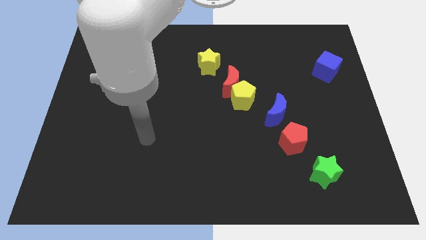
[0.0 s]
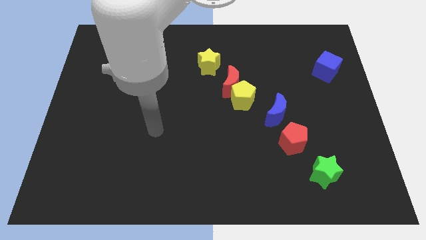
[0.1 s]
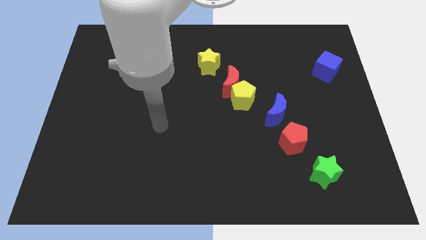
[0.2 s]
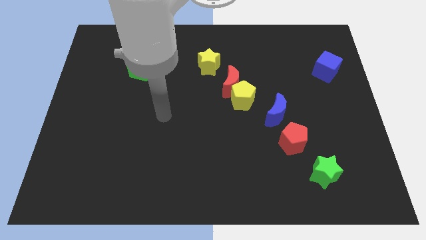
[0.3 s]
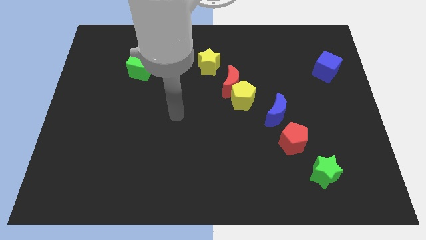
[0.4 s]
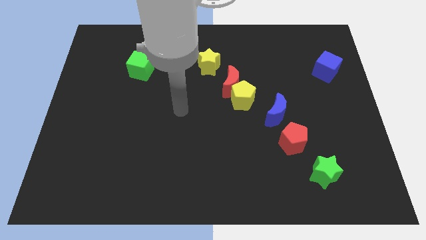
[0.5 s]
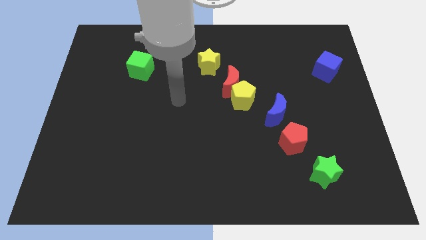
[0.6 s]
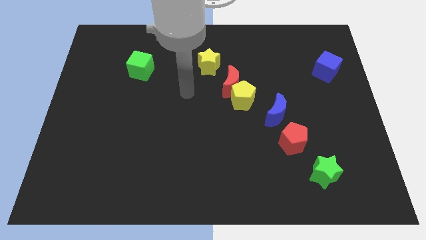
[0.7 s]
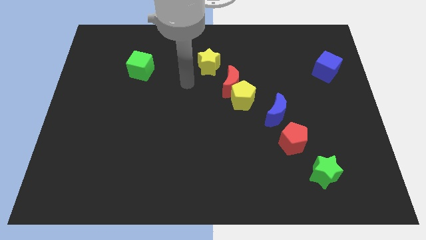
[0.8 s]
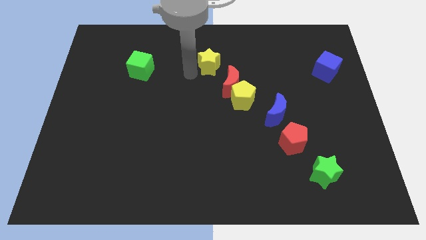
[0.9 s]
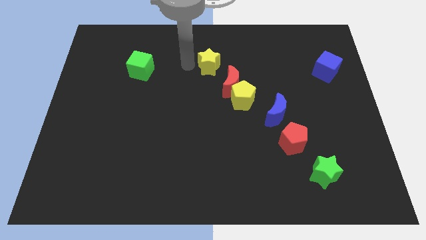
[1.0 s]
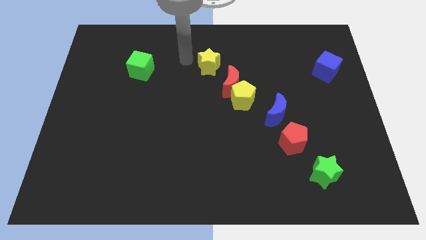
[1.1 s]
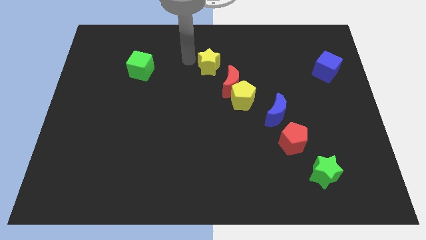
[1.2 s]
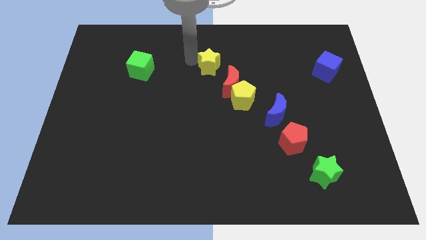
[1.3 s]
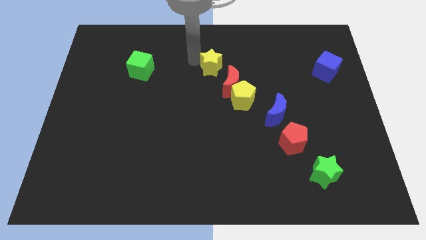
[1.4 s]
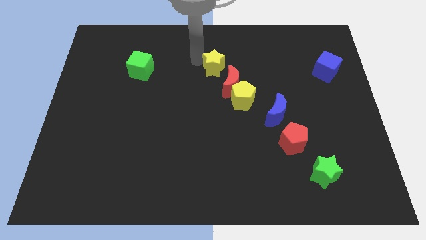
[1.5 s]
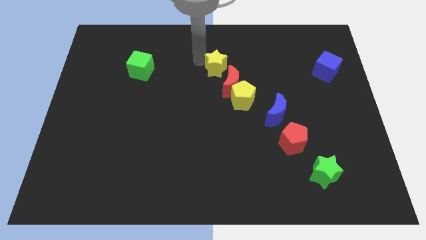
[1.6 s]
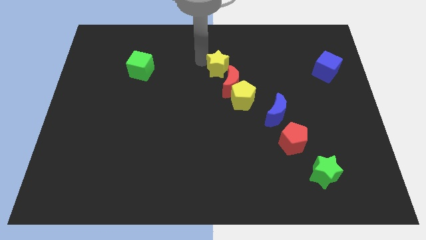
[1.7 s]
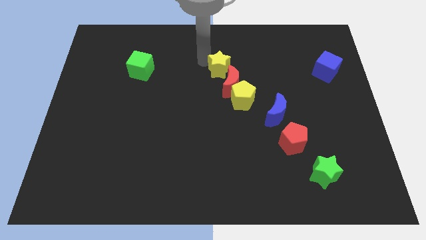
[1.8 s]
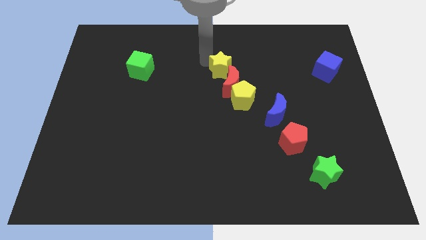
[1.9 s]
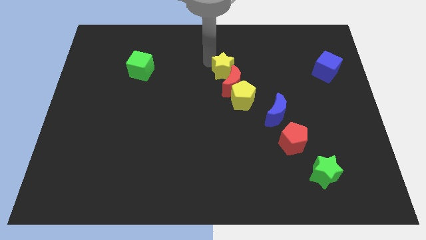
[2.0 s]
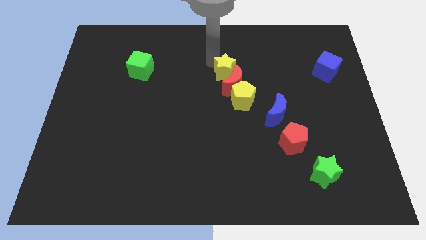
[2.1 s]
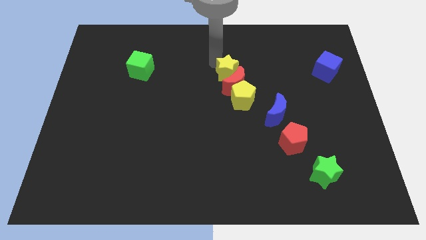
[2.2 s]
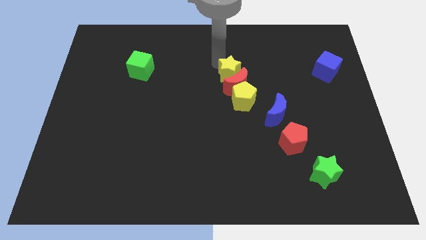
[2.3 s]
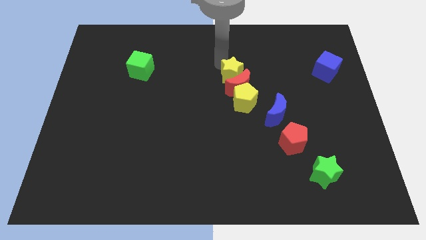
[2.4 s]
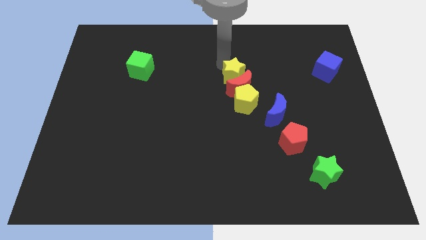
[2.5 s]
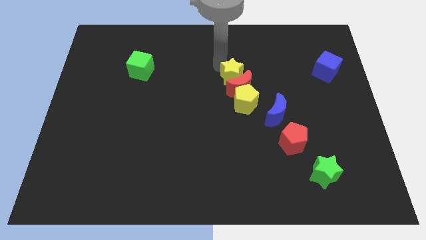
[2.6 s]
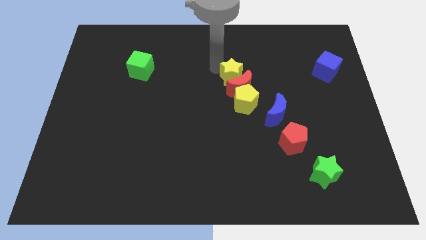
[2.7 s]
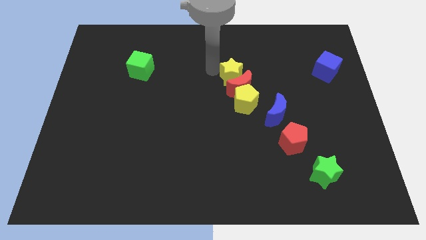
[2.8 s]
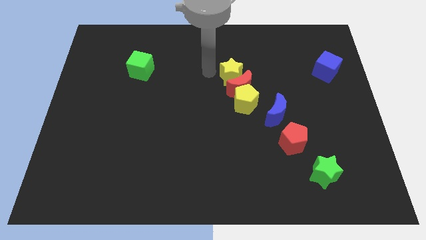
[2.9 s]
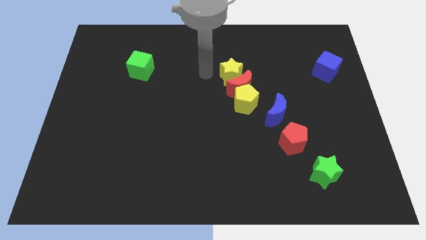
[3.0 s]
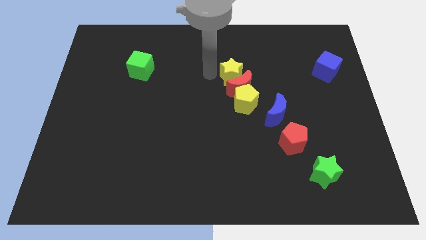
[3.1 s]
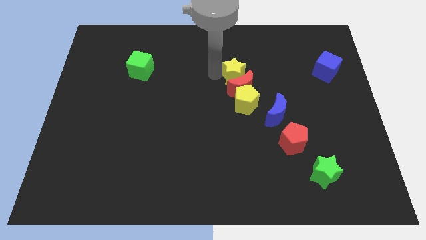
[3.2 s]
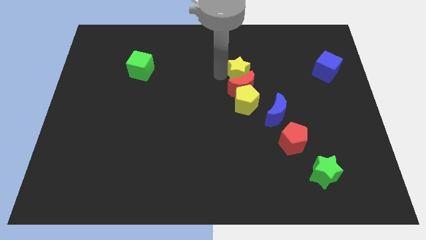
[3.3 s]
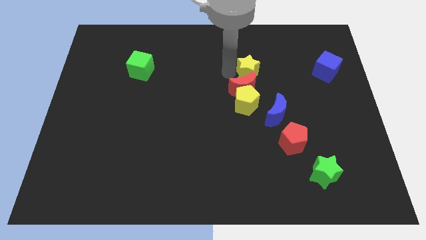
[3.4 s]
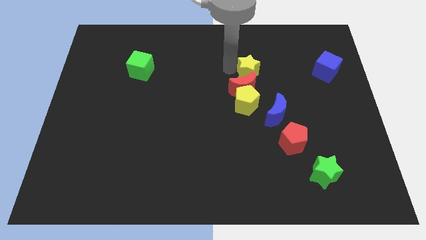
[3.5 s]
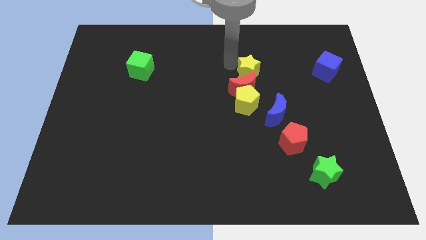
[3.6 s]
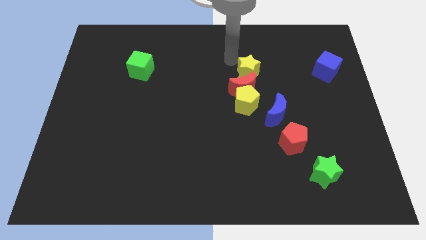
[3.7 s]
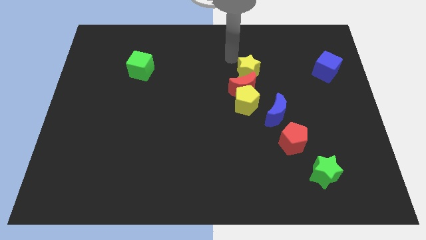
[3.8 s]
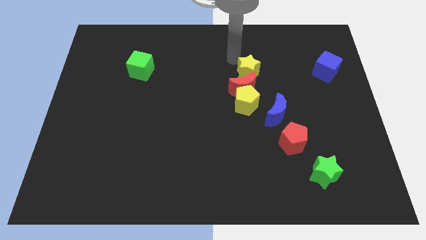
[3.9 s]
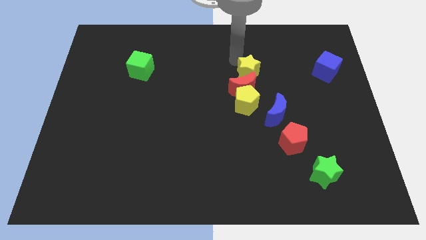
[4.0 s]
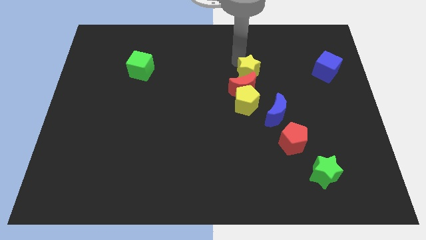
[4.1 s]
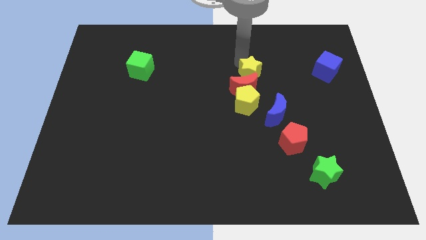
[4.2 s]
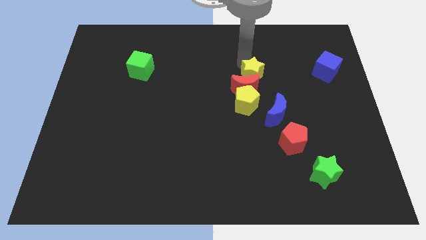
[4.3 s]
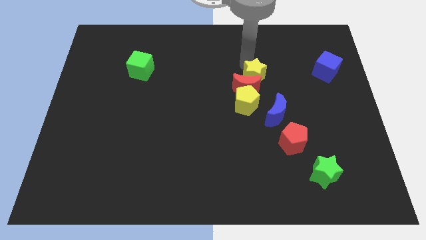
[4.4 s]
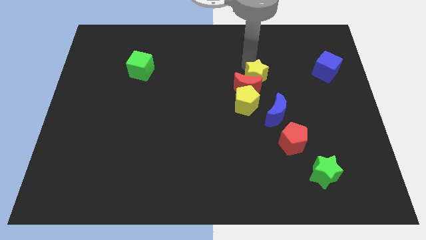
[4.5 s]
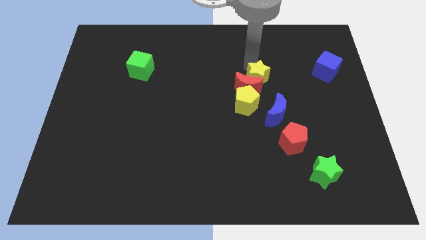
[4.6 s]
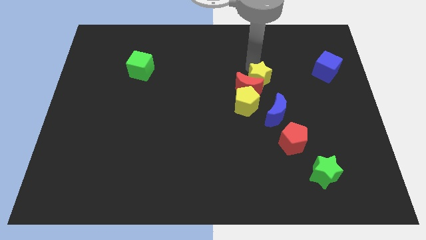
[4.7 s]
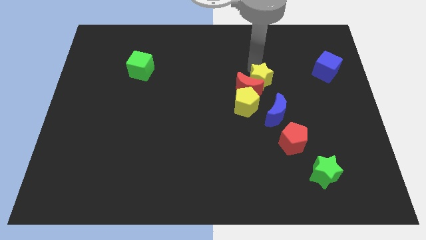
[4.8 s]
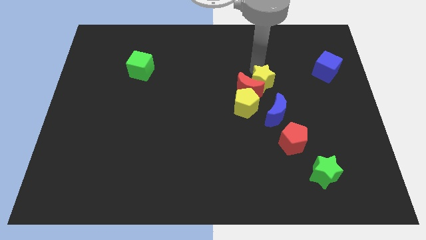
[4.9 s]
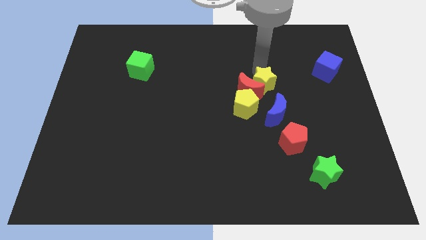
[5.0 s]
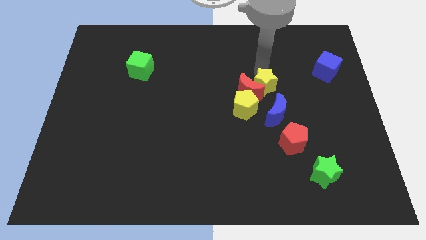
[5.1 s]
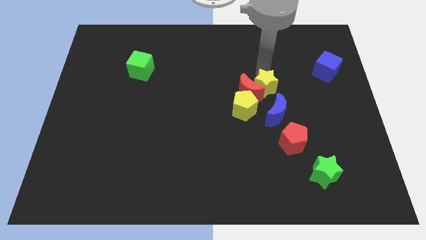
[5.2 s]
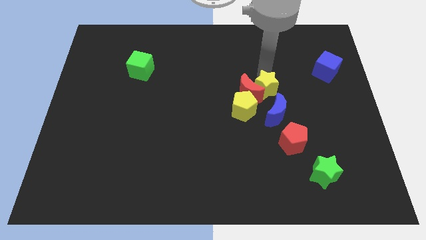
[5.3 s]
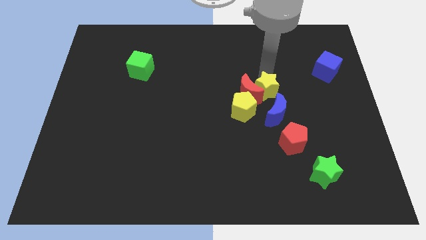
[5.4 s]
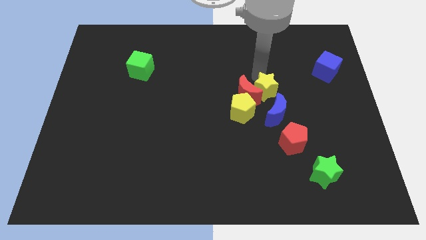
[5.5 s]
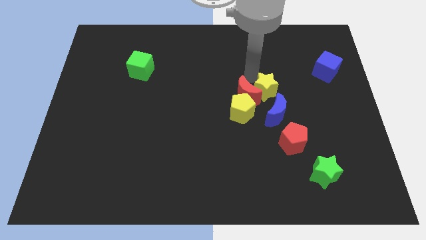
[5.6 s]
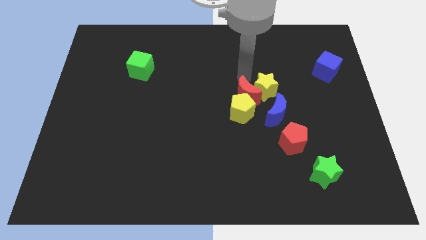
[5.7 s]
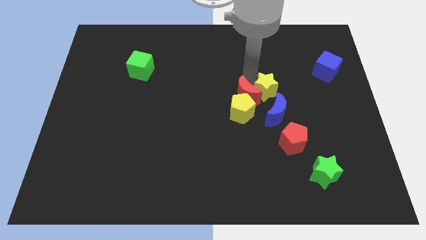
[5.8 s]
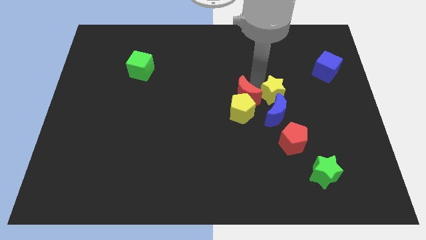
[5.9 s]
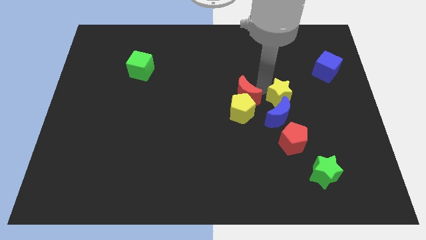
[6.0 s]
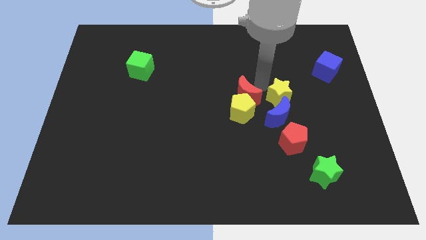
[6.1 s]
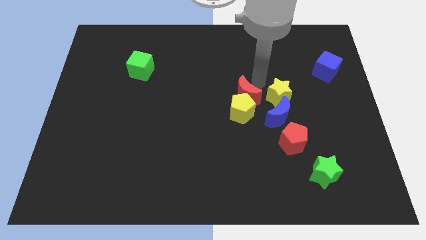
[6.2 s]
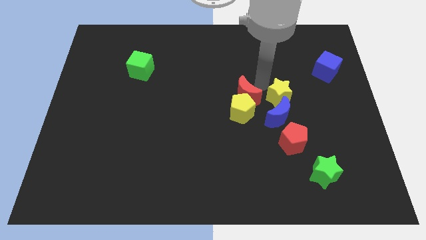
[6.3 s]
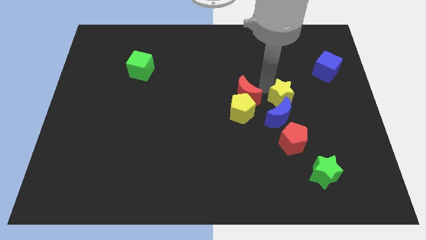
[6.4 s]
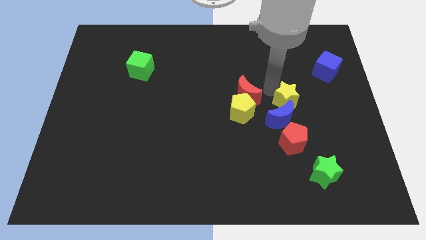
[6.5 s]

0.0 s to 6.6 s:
push the yellow star down and to the right diagonally

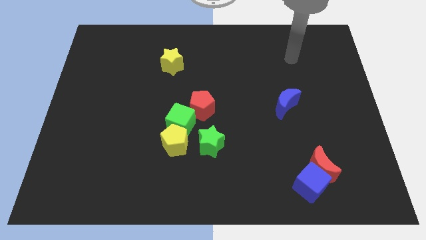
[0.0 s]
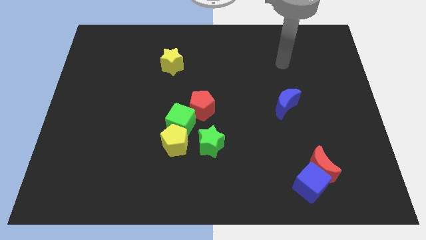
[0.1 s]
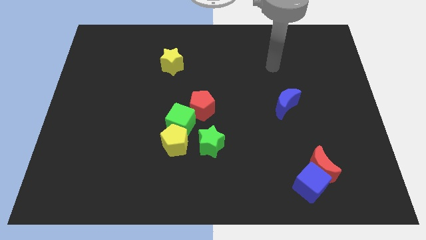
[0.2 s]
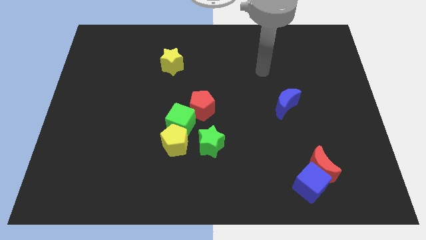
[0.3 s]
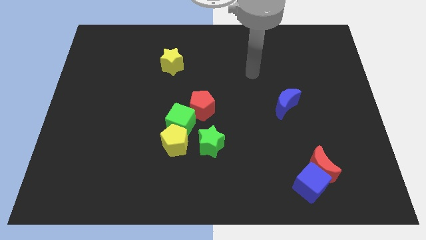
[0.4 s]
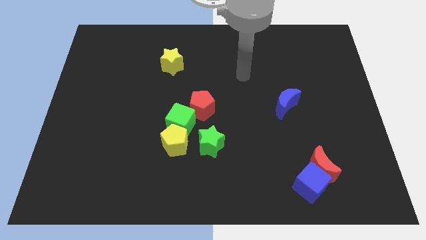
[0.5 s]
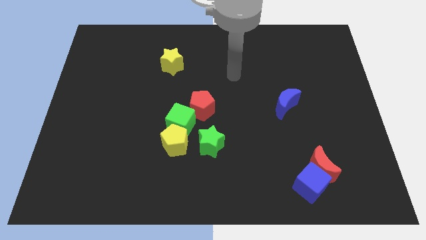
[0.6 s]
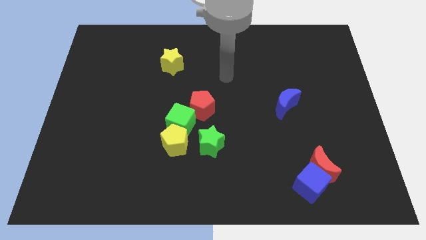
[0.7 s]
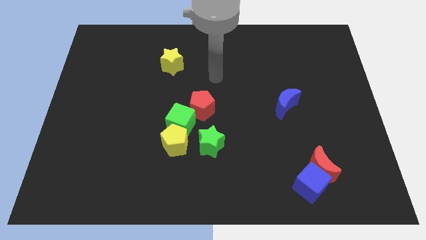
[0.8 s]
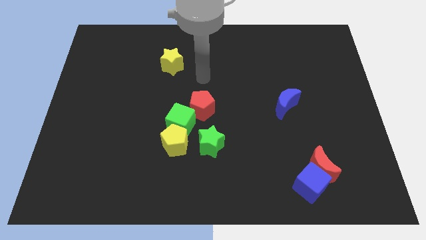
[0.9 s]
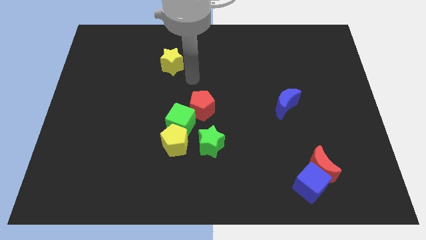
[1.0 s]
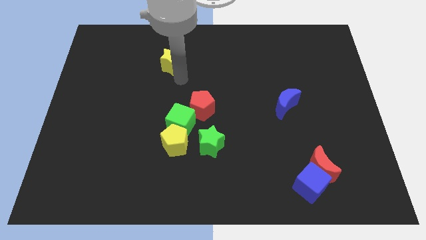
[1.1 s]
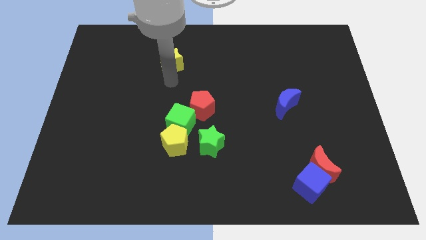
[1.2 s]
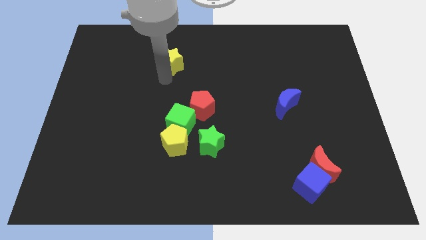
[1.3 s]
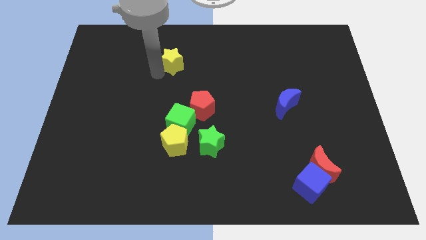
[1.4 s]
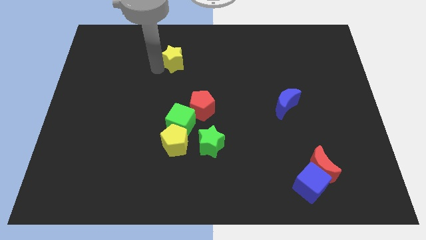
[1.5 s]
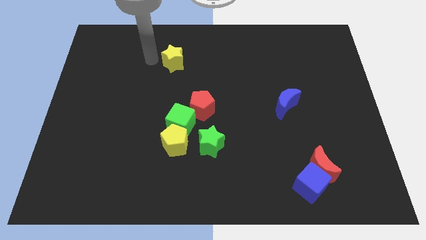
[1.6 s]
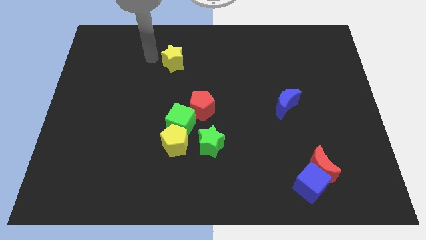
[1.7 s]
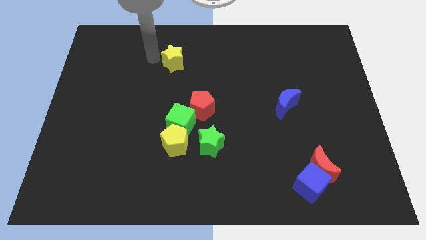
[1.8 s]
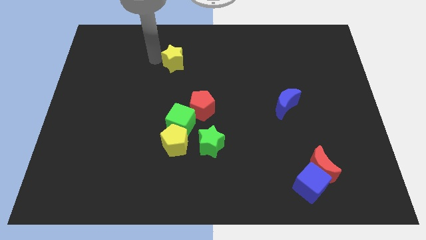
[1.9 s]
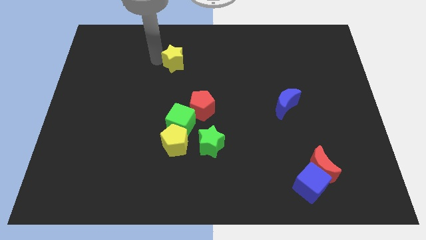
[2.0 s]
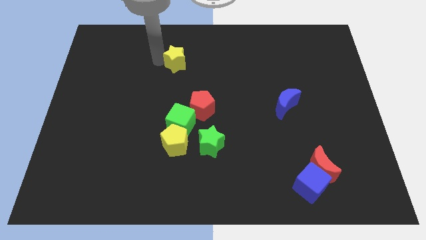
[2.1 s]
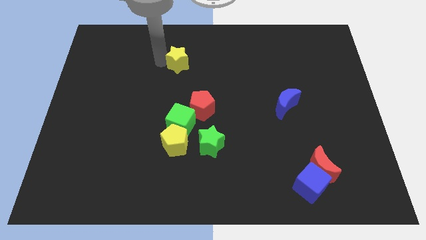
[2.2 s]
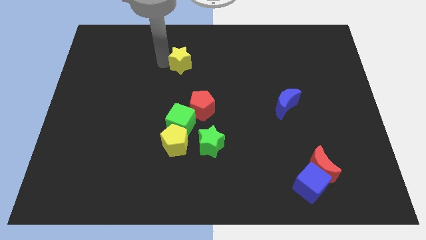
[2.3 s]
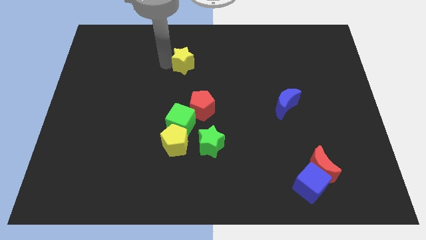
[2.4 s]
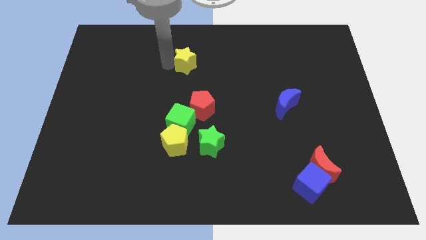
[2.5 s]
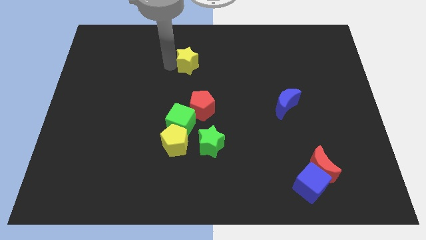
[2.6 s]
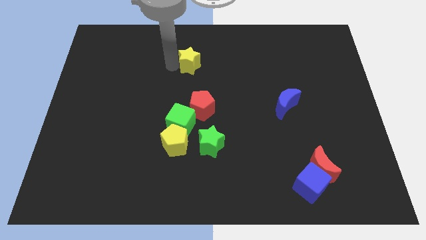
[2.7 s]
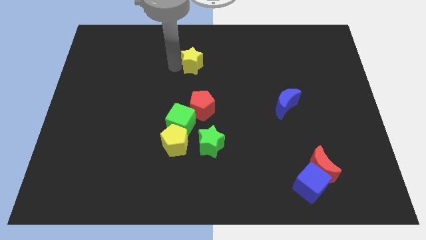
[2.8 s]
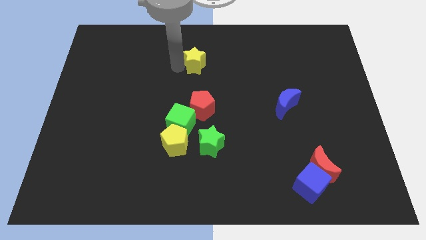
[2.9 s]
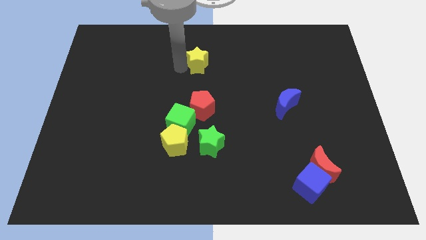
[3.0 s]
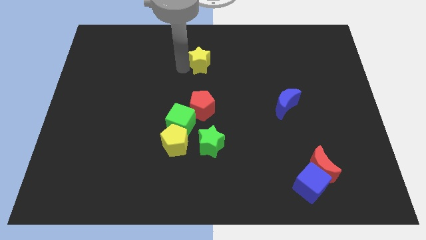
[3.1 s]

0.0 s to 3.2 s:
push the yellow star a bit to the right
